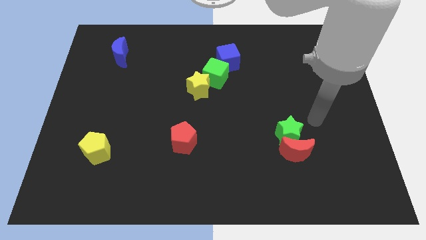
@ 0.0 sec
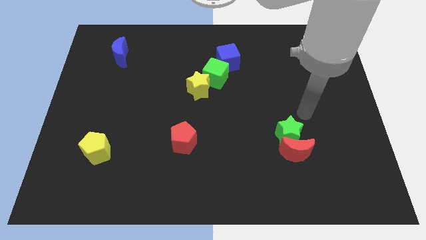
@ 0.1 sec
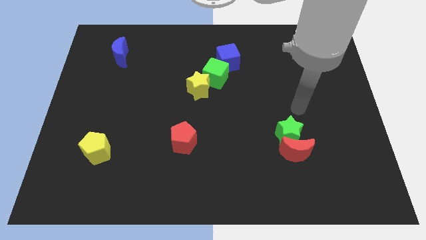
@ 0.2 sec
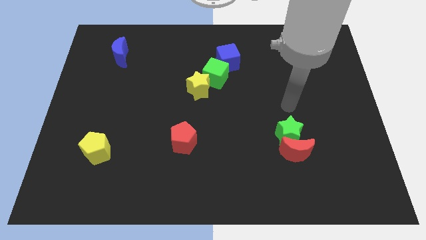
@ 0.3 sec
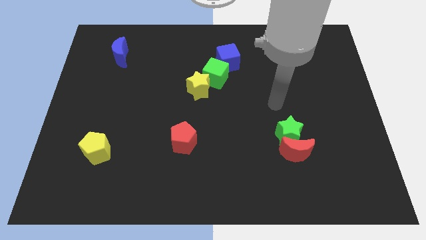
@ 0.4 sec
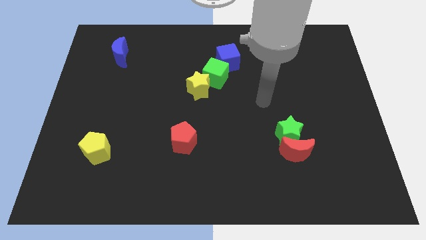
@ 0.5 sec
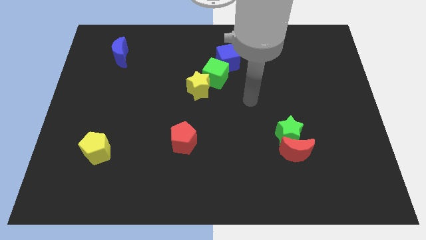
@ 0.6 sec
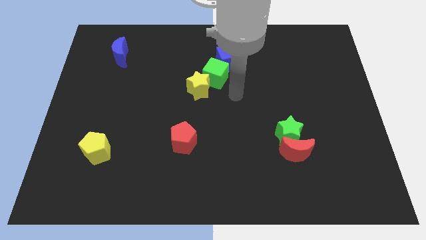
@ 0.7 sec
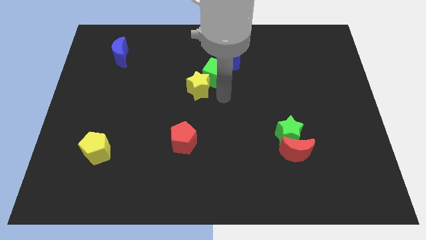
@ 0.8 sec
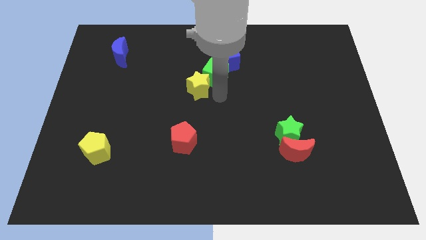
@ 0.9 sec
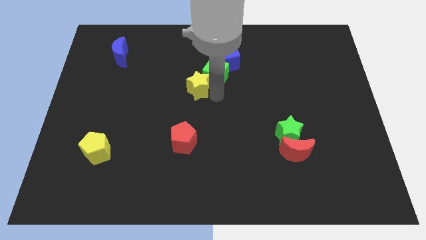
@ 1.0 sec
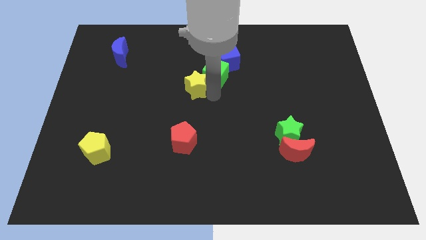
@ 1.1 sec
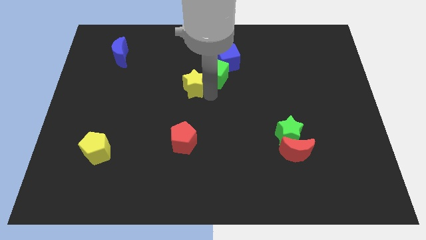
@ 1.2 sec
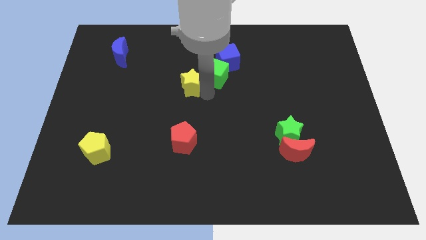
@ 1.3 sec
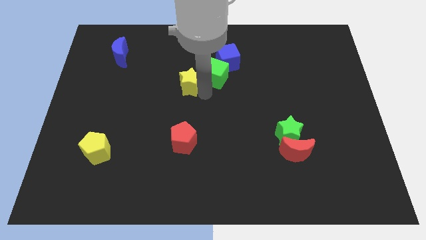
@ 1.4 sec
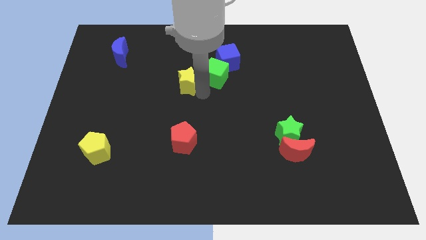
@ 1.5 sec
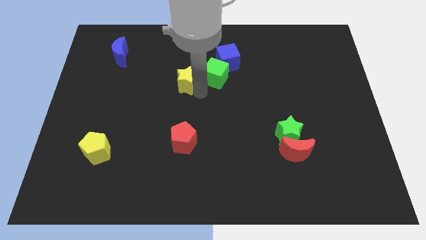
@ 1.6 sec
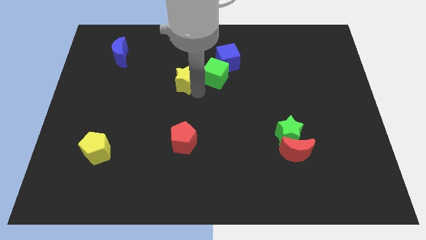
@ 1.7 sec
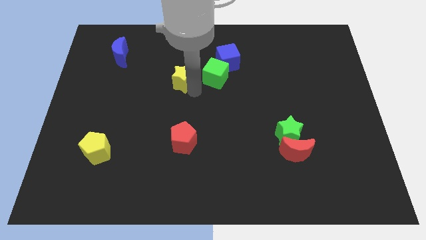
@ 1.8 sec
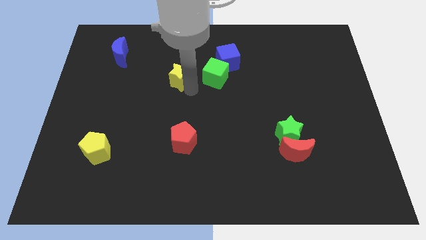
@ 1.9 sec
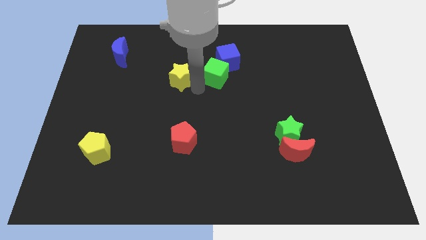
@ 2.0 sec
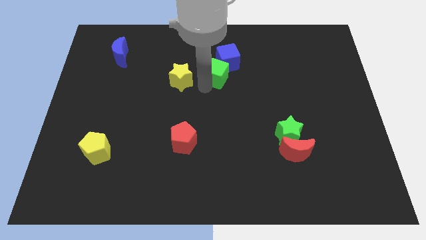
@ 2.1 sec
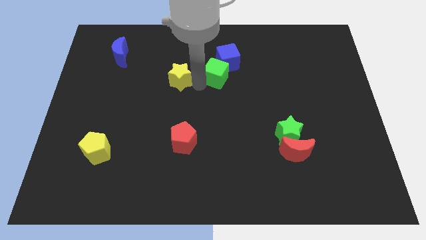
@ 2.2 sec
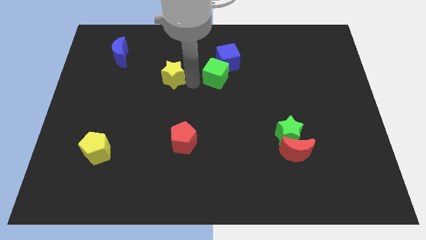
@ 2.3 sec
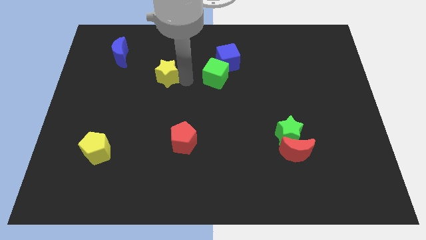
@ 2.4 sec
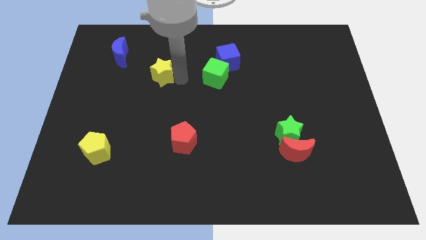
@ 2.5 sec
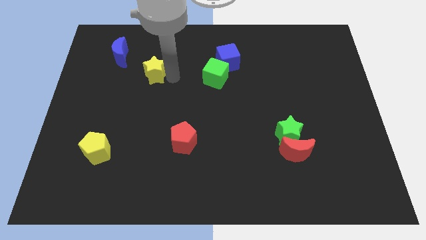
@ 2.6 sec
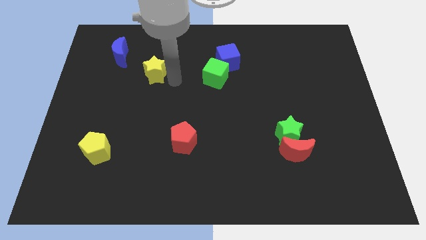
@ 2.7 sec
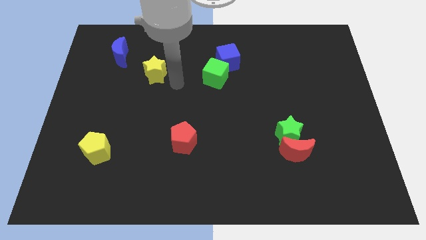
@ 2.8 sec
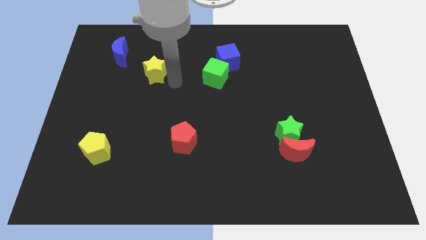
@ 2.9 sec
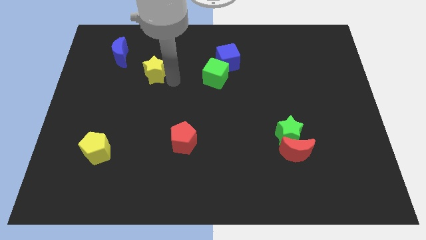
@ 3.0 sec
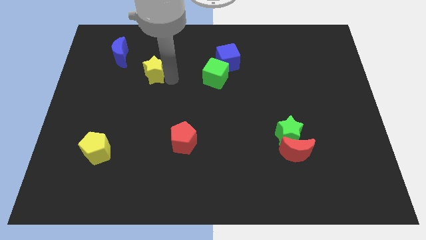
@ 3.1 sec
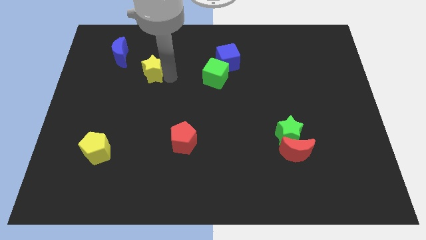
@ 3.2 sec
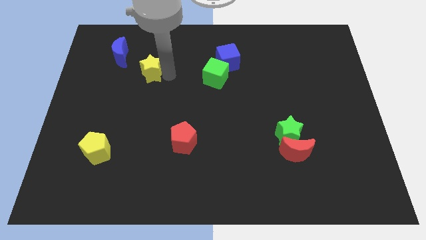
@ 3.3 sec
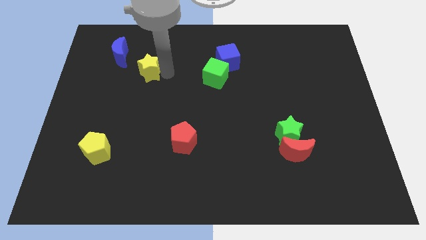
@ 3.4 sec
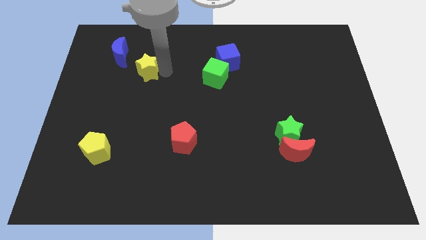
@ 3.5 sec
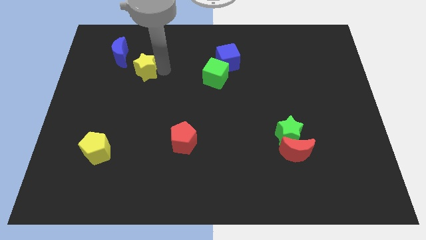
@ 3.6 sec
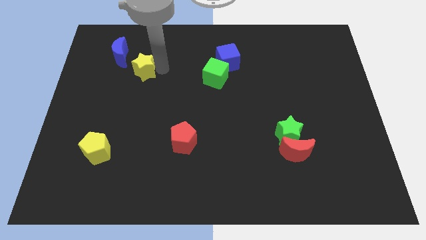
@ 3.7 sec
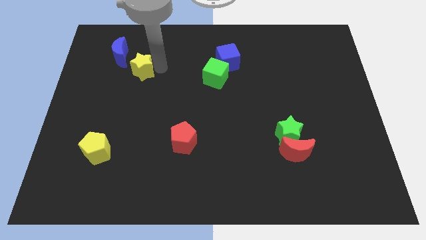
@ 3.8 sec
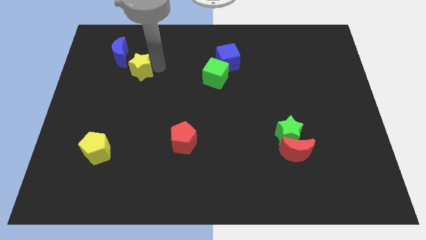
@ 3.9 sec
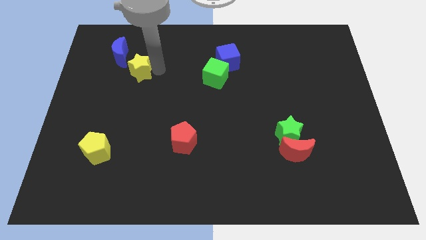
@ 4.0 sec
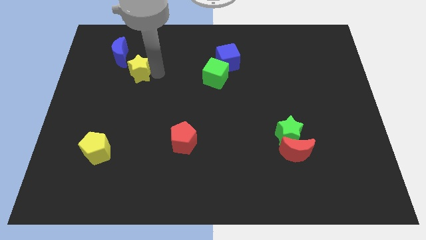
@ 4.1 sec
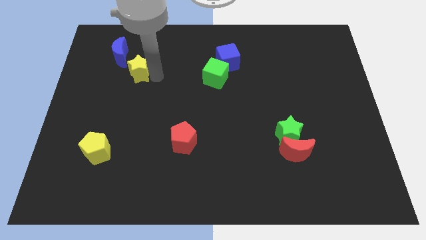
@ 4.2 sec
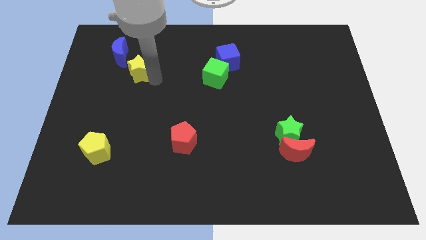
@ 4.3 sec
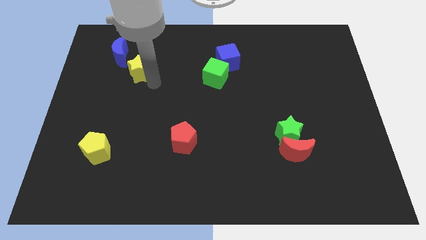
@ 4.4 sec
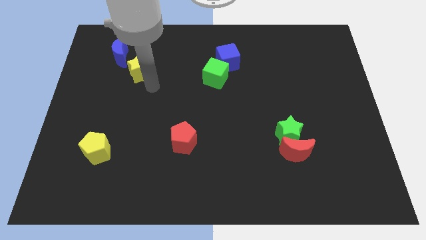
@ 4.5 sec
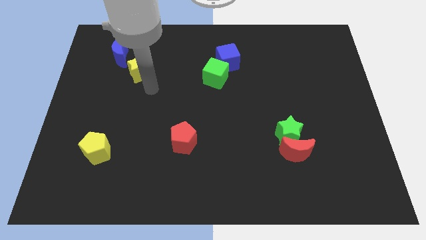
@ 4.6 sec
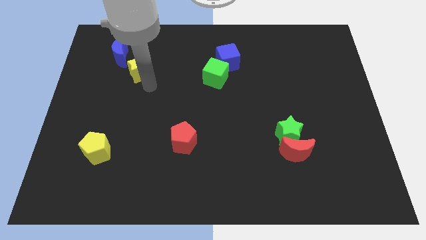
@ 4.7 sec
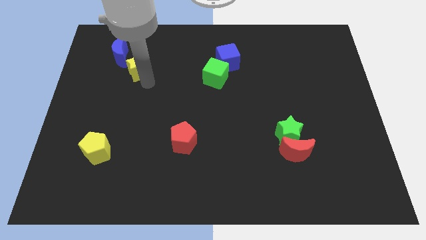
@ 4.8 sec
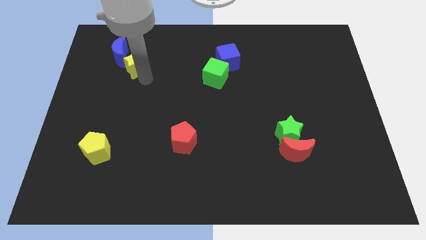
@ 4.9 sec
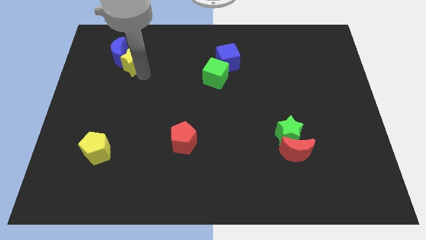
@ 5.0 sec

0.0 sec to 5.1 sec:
slide the yellow star close to the blue moon

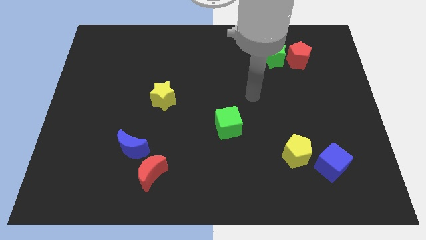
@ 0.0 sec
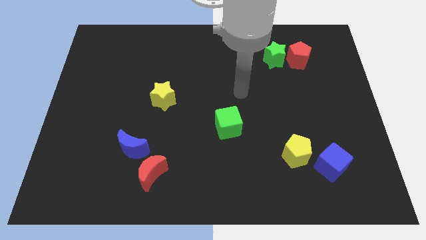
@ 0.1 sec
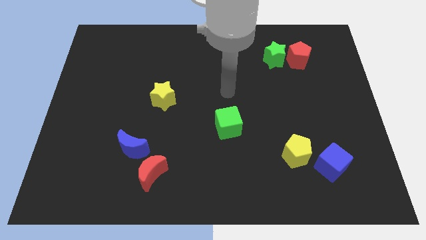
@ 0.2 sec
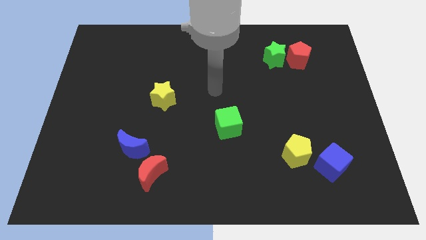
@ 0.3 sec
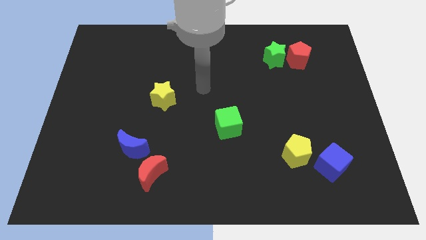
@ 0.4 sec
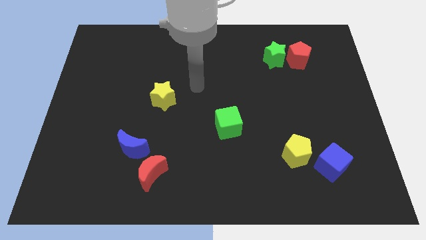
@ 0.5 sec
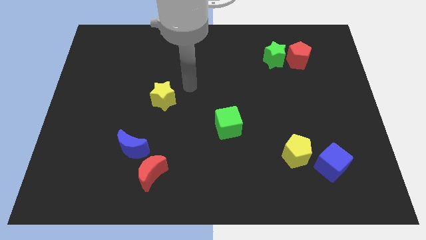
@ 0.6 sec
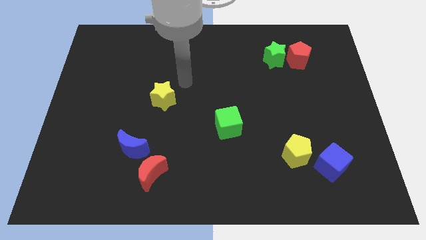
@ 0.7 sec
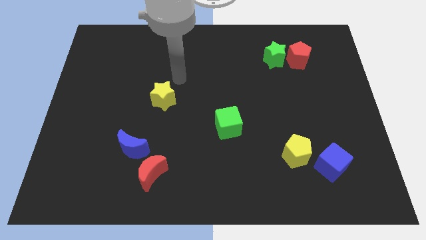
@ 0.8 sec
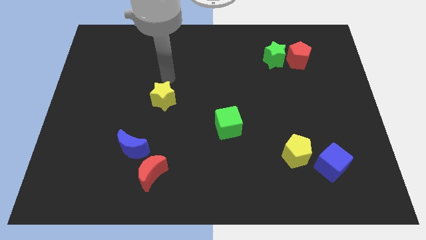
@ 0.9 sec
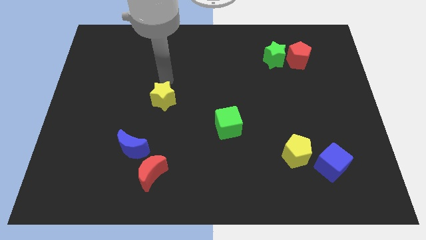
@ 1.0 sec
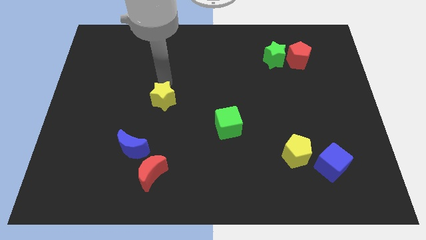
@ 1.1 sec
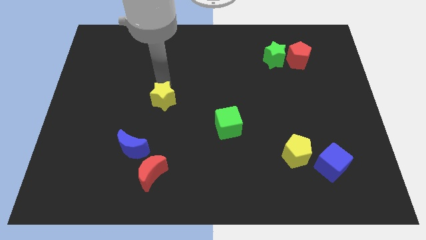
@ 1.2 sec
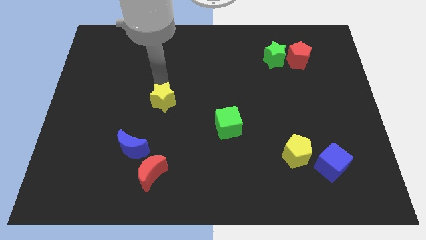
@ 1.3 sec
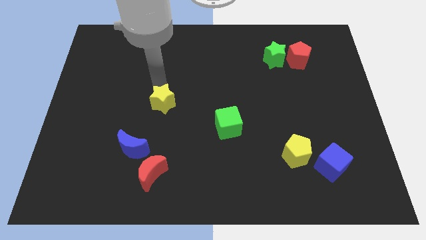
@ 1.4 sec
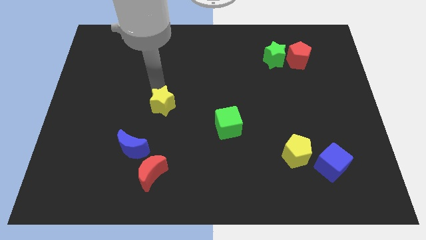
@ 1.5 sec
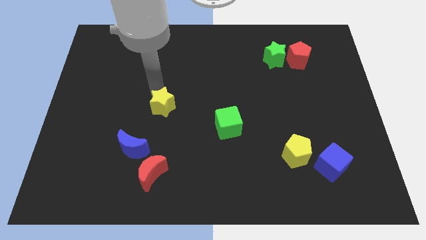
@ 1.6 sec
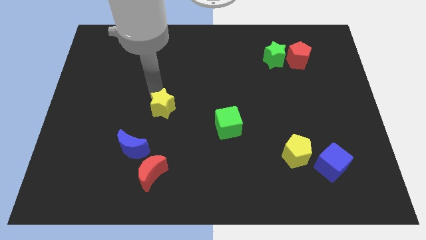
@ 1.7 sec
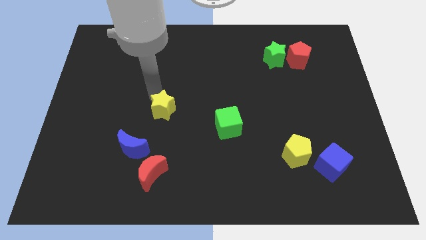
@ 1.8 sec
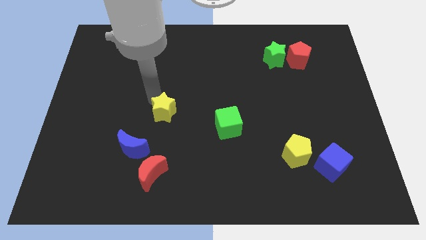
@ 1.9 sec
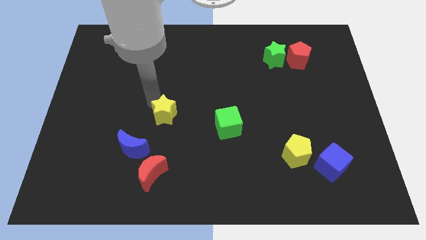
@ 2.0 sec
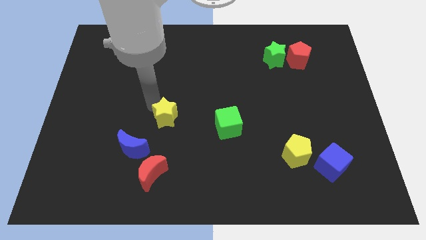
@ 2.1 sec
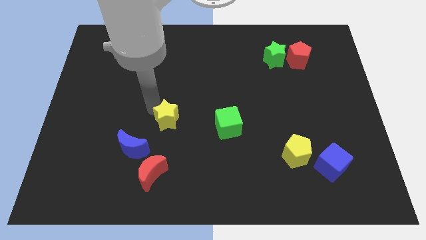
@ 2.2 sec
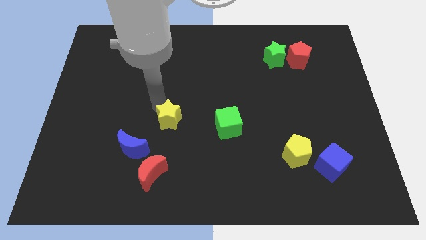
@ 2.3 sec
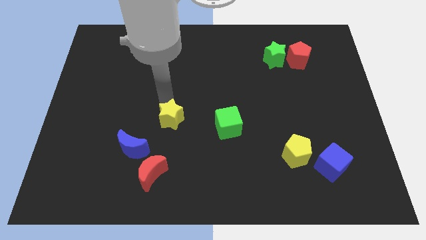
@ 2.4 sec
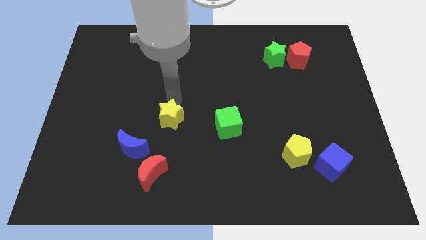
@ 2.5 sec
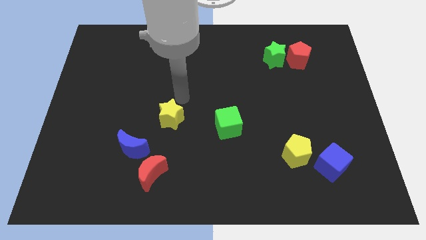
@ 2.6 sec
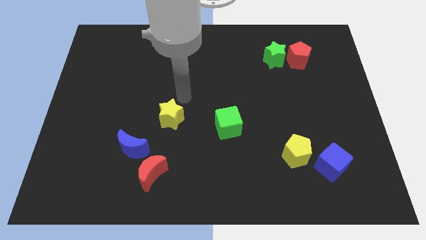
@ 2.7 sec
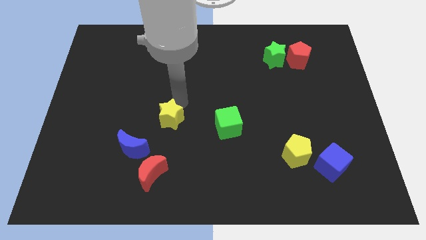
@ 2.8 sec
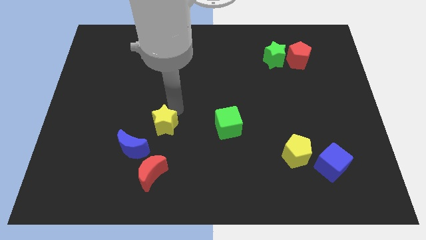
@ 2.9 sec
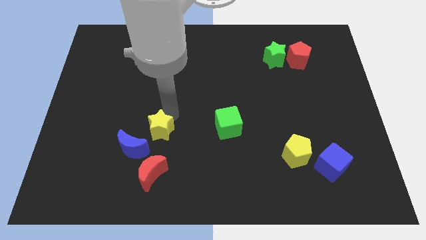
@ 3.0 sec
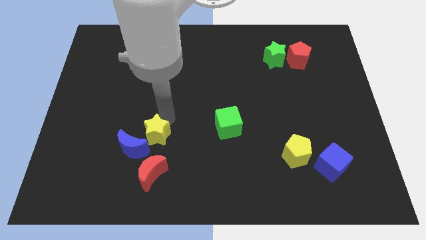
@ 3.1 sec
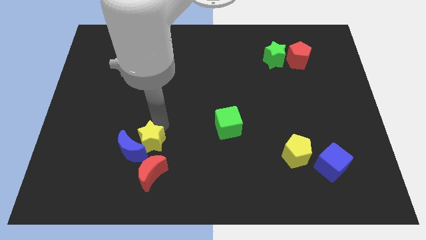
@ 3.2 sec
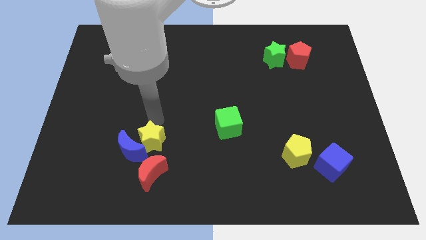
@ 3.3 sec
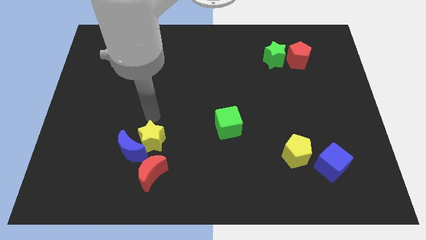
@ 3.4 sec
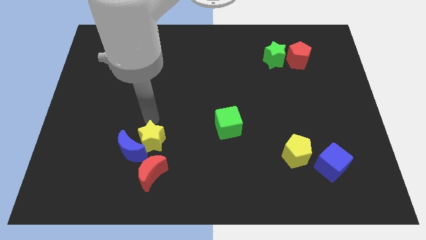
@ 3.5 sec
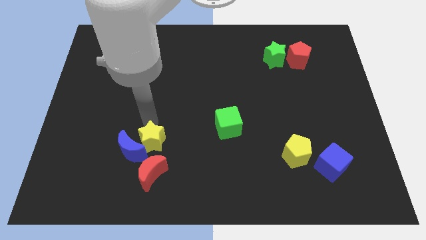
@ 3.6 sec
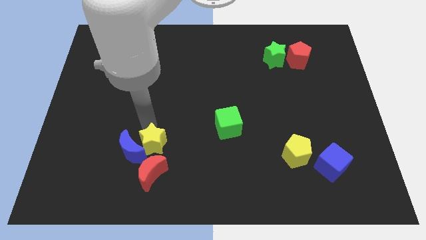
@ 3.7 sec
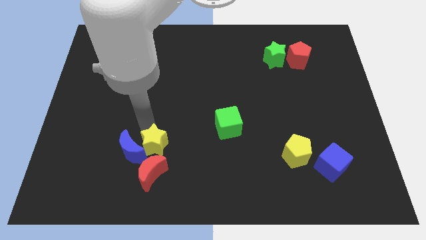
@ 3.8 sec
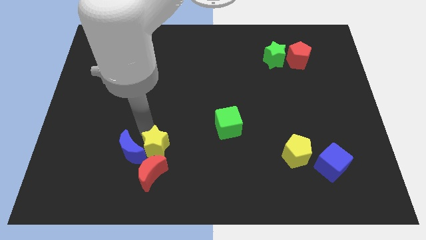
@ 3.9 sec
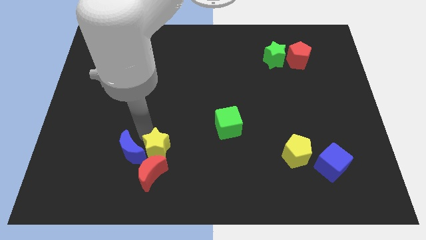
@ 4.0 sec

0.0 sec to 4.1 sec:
push the yellow star towards the red moon
